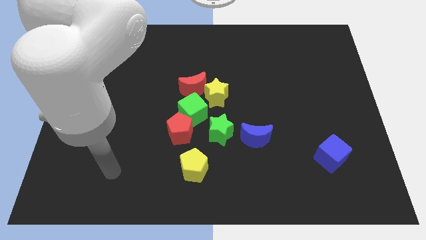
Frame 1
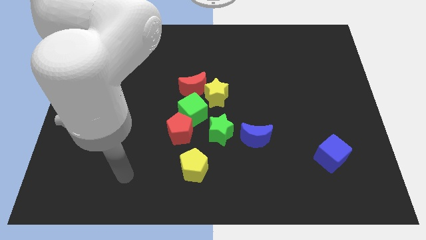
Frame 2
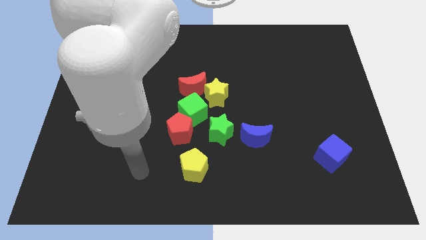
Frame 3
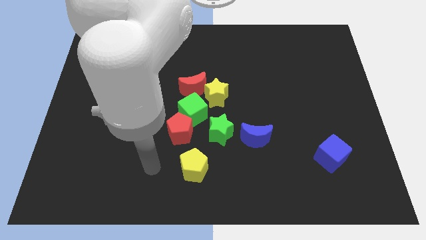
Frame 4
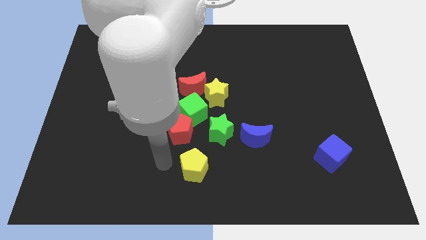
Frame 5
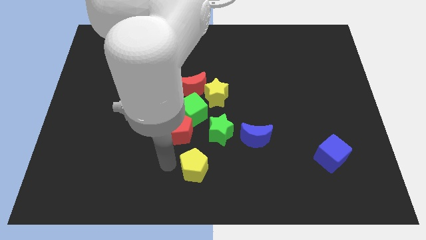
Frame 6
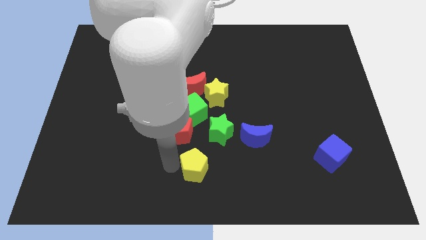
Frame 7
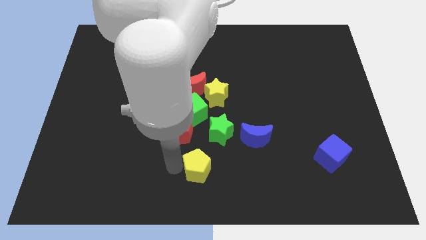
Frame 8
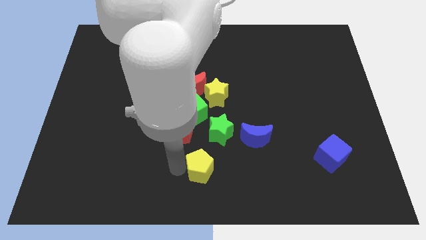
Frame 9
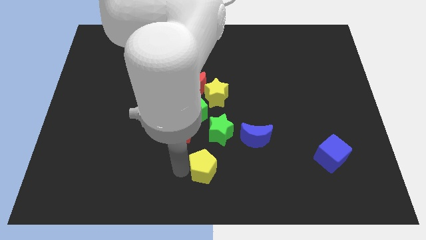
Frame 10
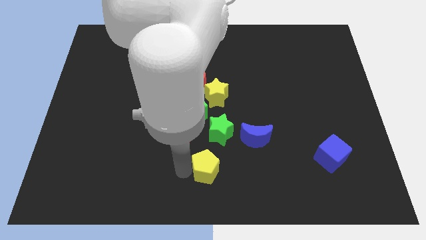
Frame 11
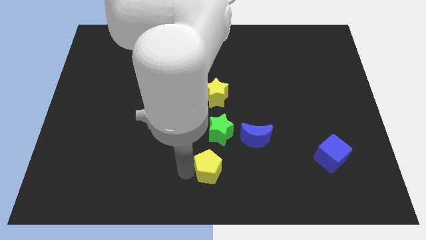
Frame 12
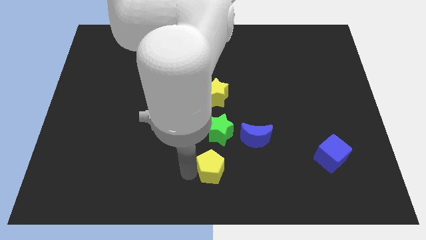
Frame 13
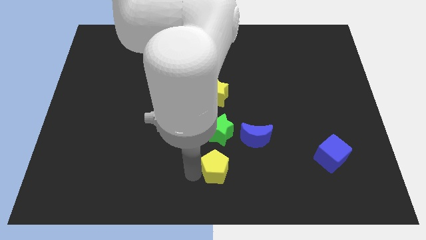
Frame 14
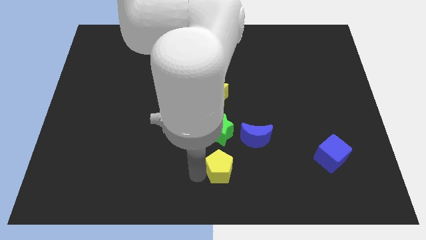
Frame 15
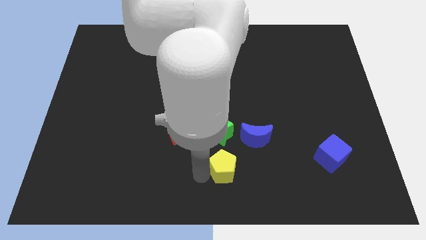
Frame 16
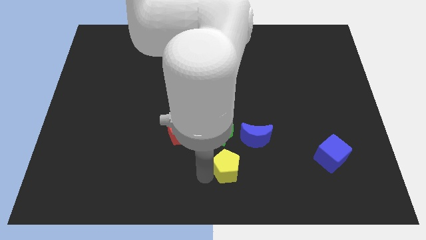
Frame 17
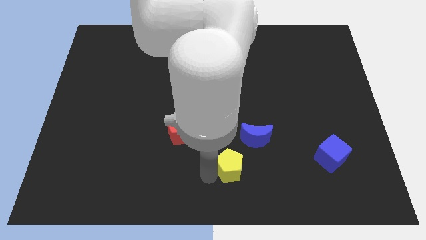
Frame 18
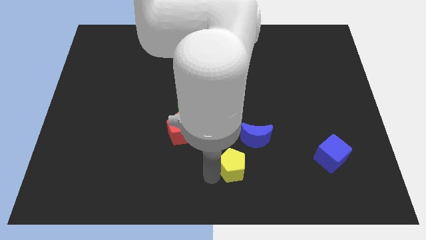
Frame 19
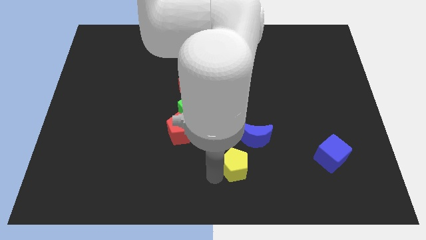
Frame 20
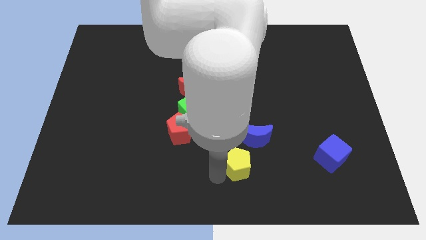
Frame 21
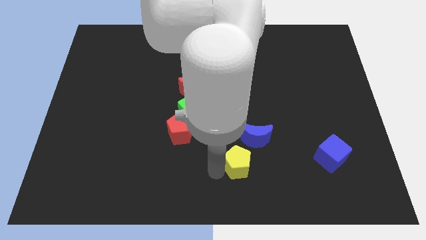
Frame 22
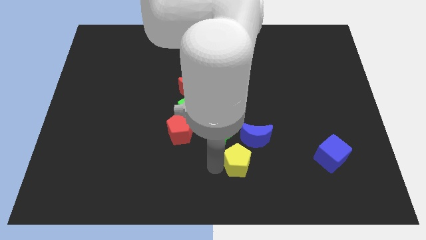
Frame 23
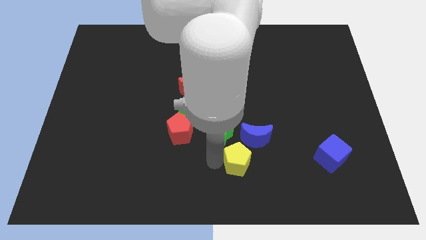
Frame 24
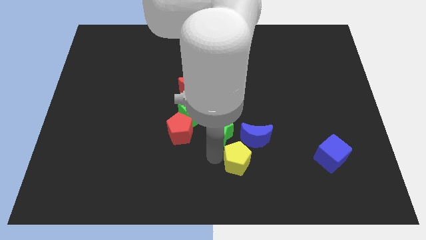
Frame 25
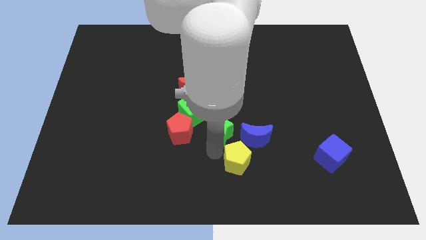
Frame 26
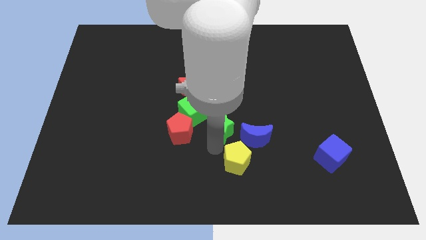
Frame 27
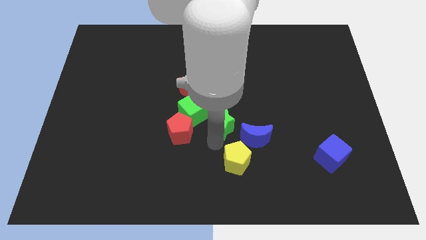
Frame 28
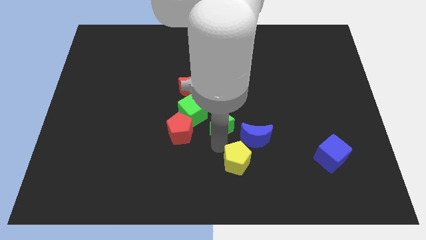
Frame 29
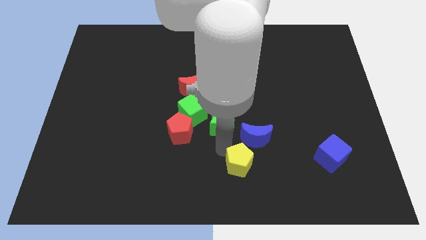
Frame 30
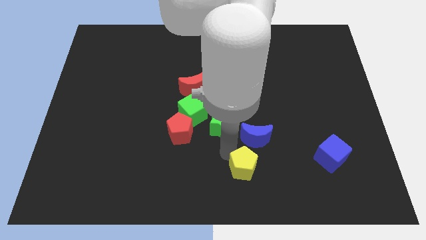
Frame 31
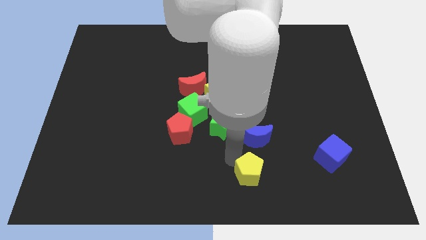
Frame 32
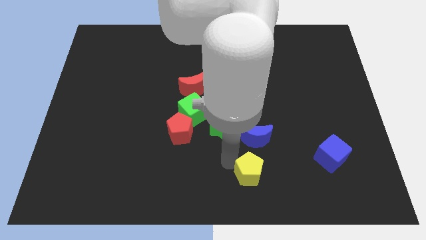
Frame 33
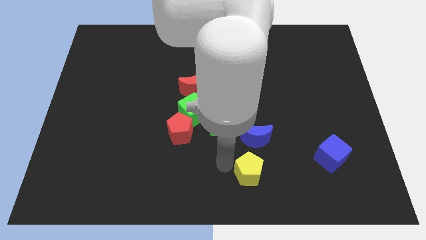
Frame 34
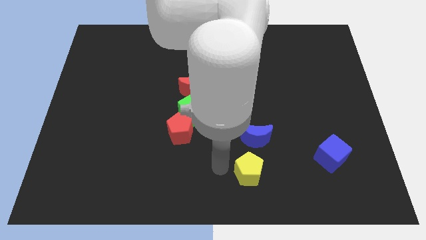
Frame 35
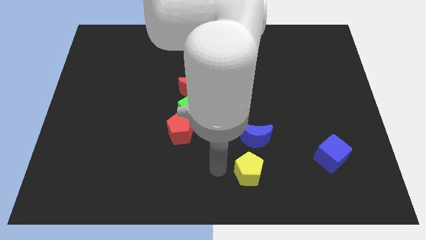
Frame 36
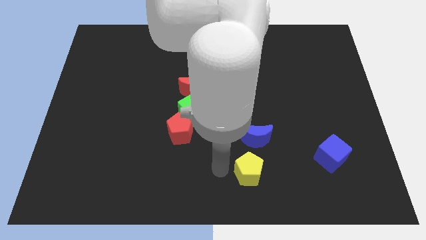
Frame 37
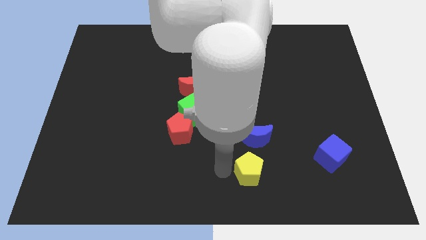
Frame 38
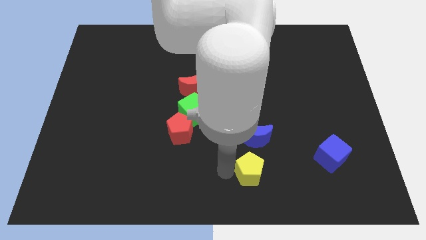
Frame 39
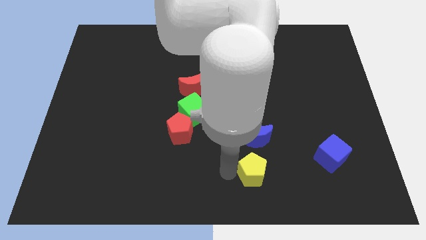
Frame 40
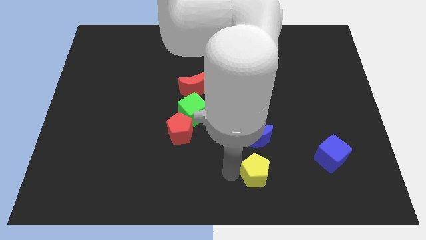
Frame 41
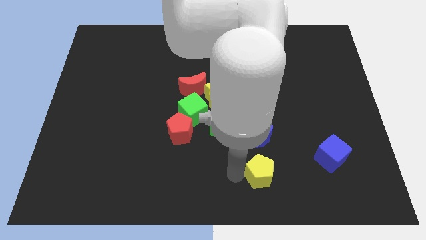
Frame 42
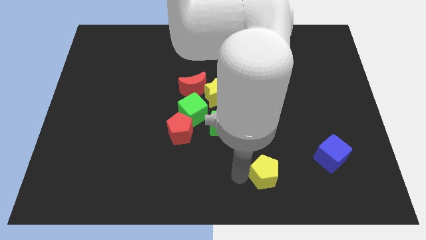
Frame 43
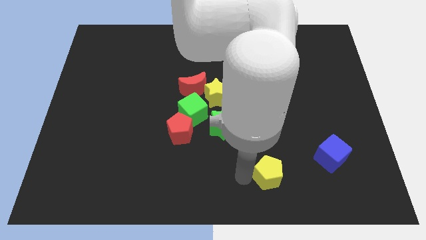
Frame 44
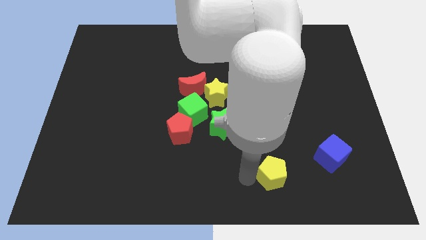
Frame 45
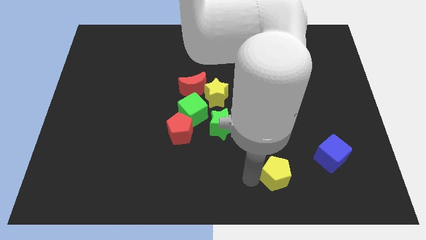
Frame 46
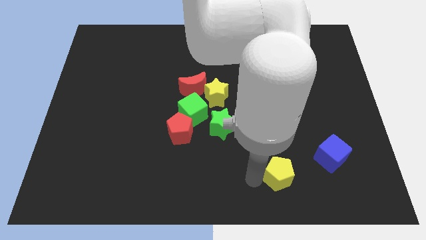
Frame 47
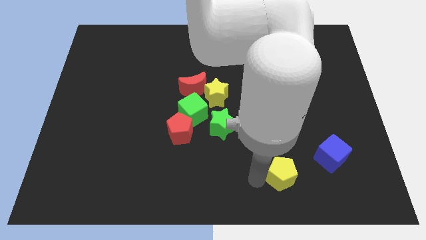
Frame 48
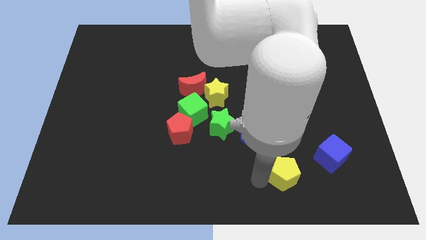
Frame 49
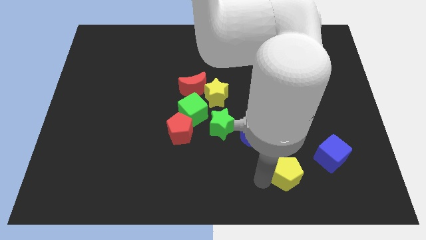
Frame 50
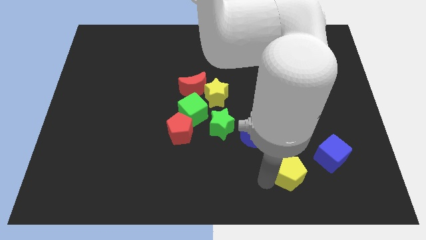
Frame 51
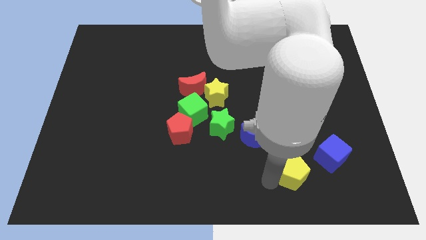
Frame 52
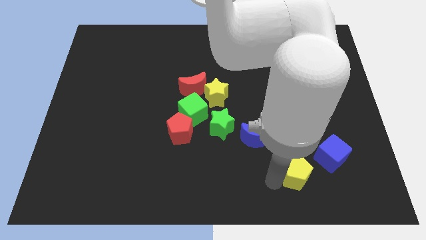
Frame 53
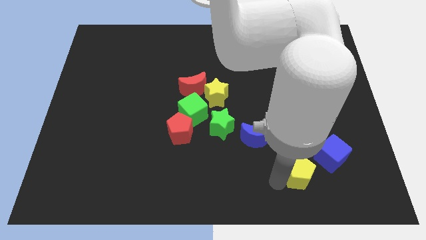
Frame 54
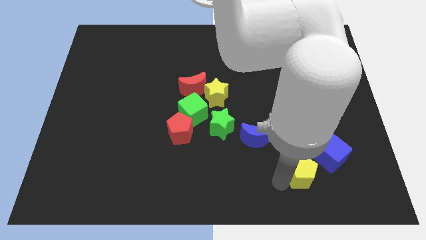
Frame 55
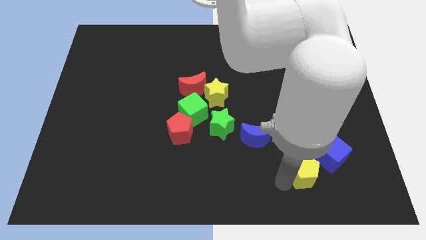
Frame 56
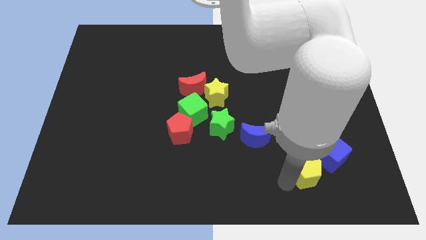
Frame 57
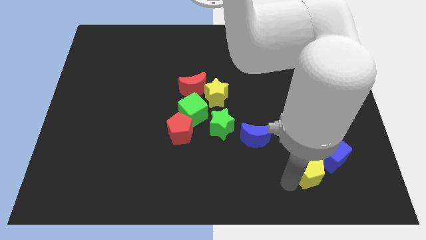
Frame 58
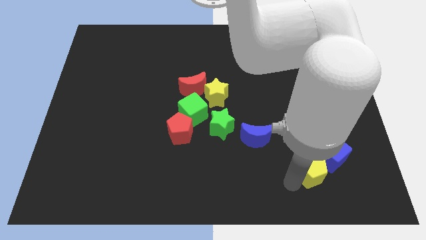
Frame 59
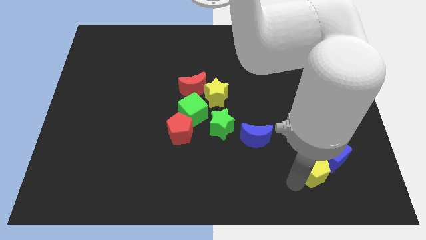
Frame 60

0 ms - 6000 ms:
slide the yellow pentagon close to the blue cube

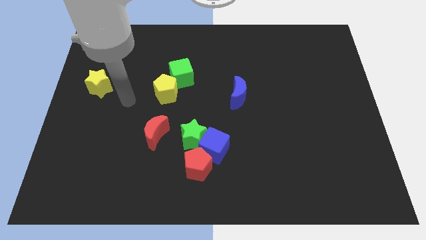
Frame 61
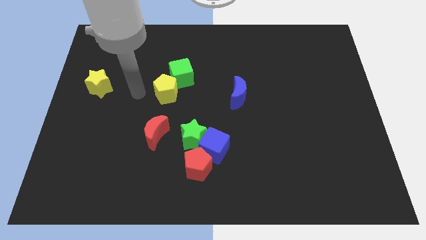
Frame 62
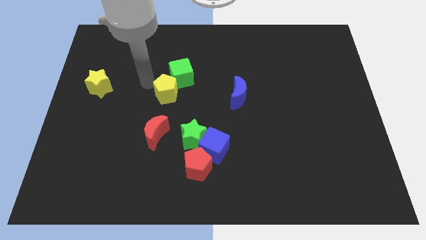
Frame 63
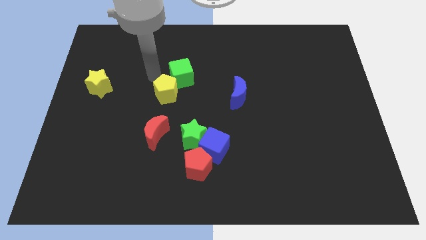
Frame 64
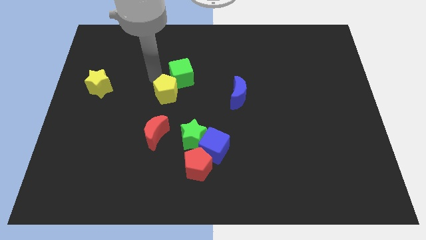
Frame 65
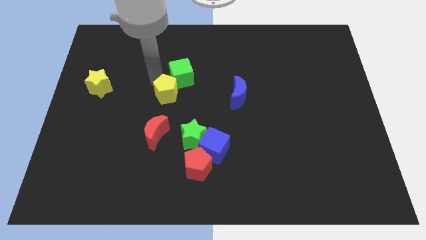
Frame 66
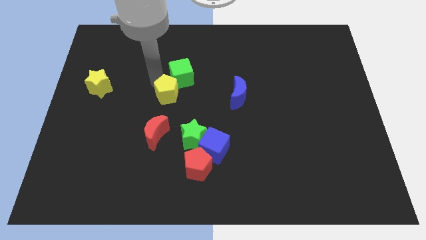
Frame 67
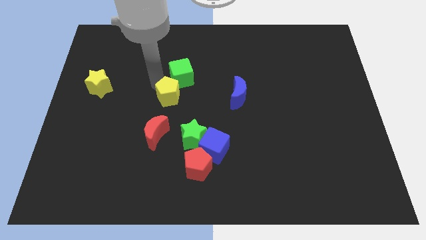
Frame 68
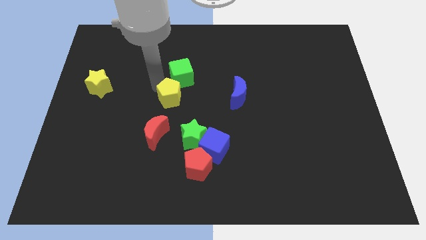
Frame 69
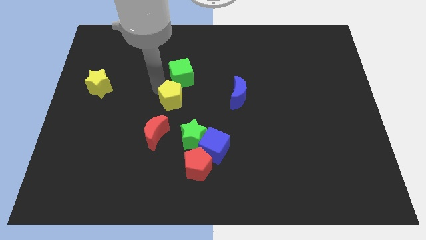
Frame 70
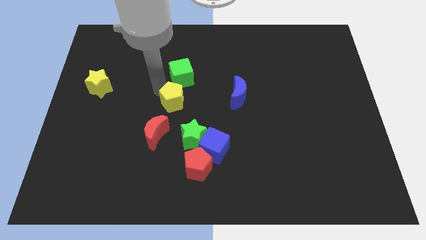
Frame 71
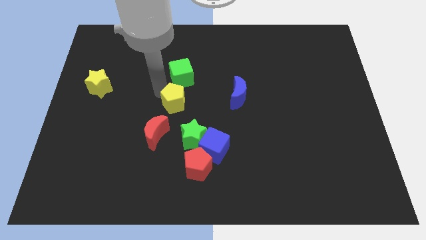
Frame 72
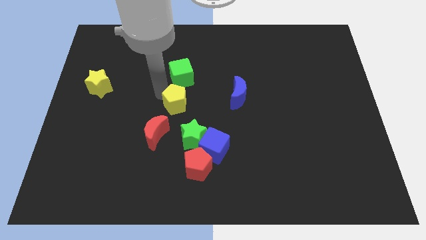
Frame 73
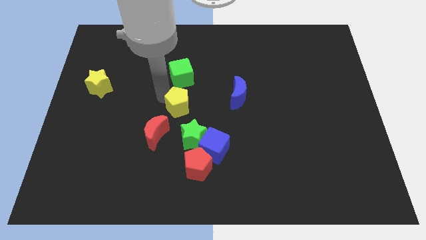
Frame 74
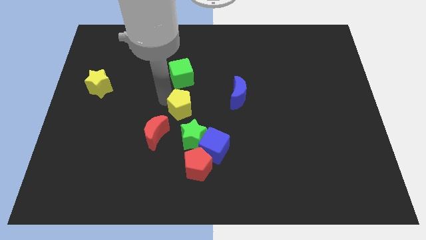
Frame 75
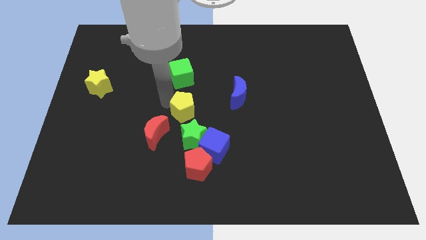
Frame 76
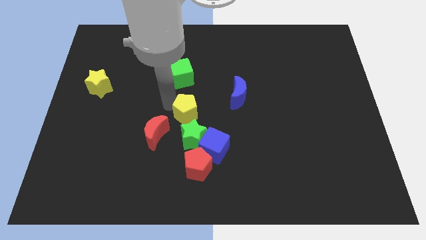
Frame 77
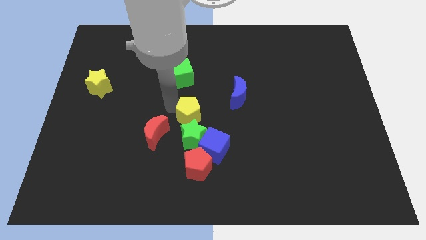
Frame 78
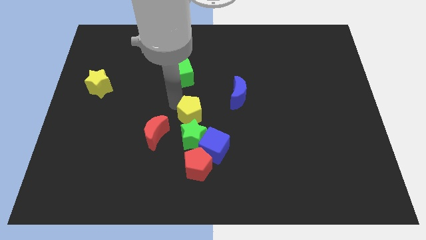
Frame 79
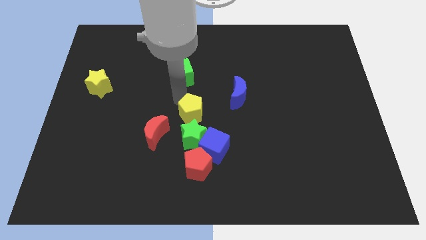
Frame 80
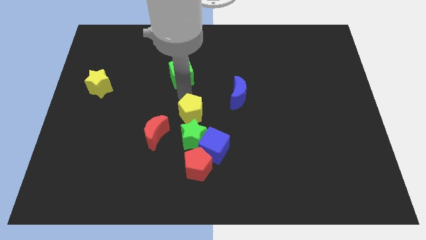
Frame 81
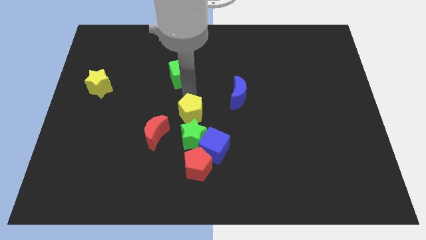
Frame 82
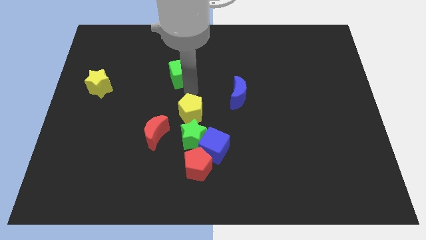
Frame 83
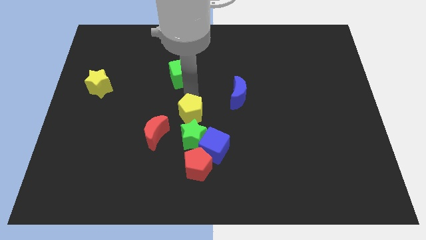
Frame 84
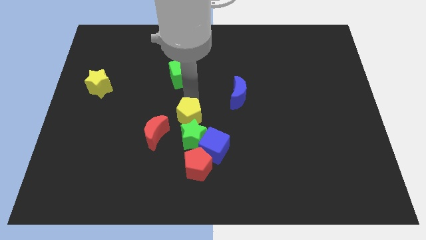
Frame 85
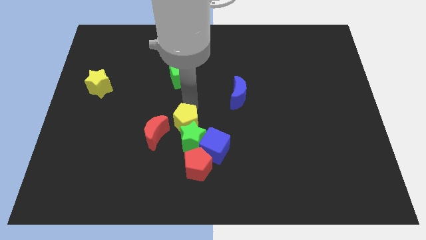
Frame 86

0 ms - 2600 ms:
put the yellow pentagon close to the green star
